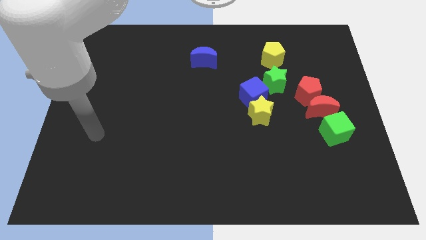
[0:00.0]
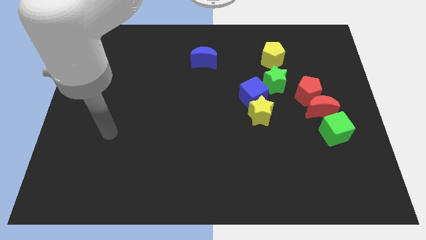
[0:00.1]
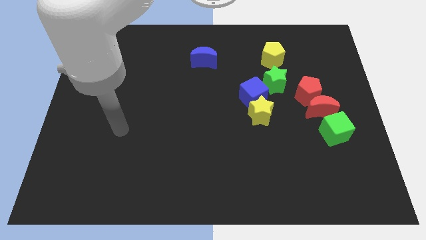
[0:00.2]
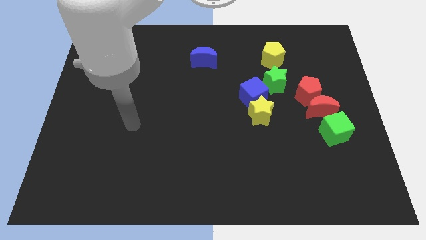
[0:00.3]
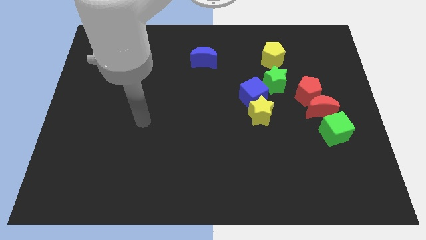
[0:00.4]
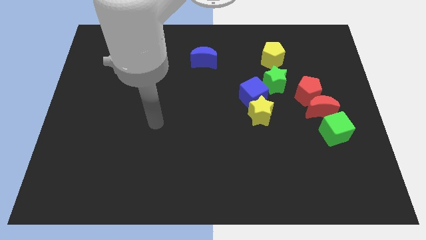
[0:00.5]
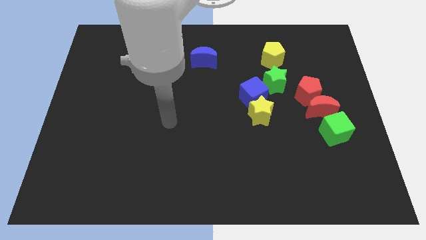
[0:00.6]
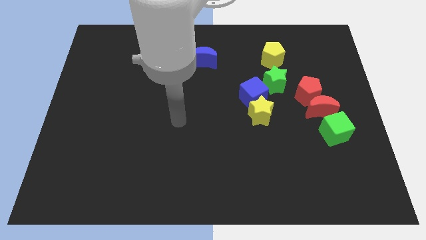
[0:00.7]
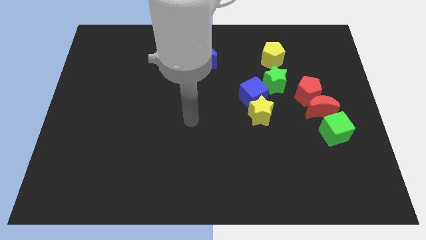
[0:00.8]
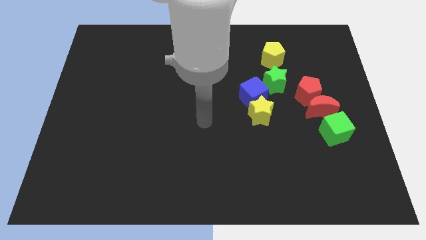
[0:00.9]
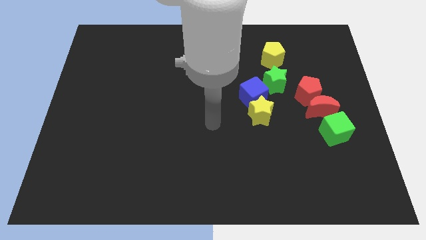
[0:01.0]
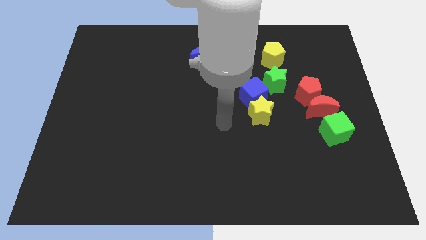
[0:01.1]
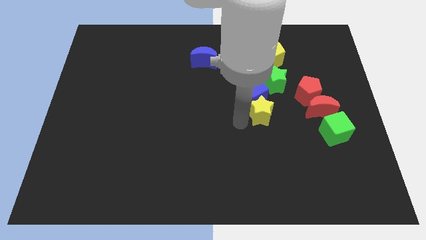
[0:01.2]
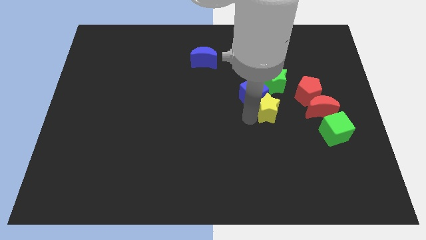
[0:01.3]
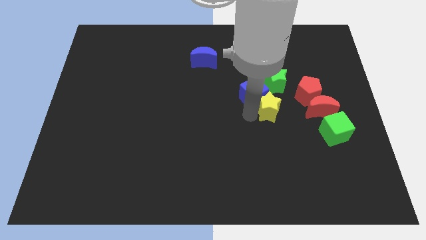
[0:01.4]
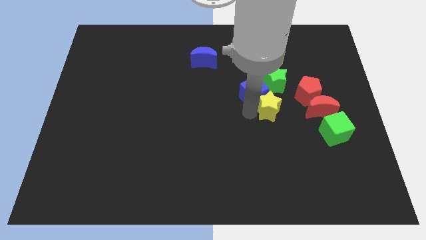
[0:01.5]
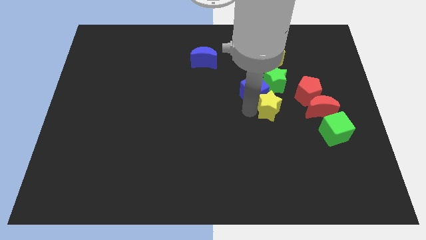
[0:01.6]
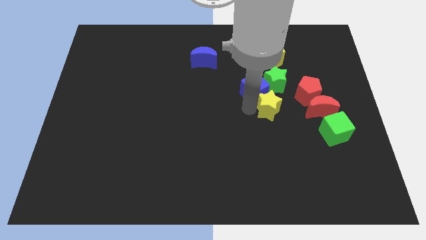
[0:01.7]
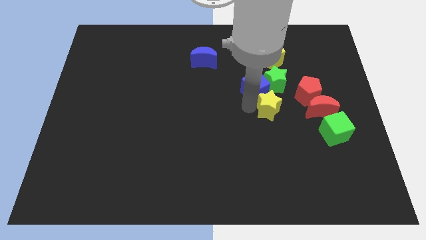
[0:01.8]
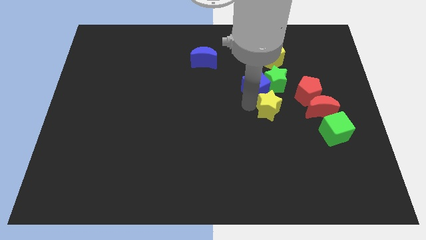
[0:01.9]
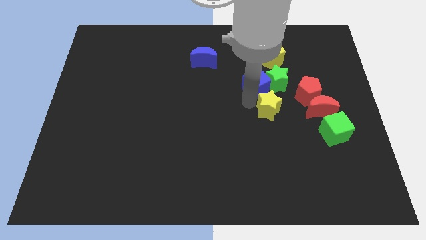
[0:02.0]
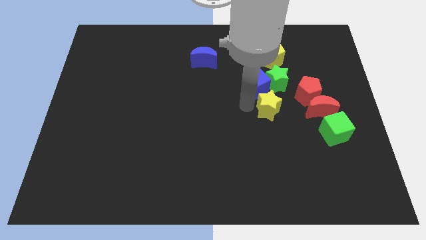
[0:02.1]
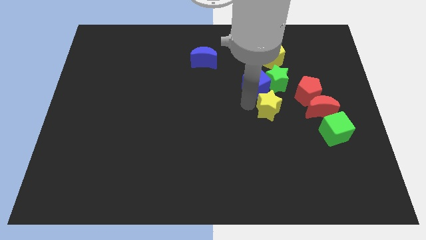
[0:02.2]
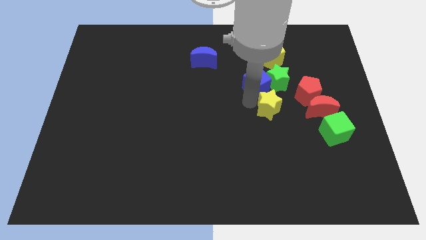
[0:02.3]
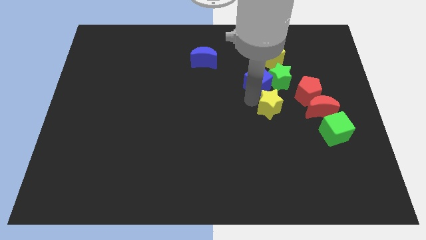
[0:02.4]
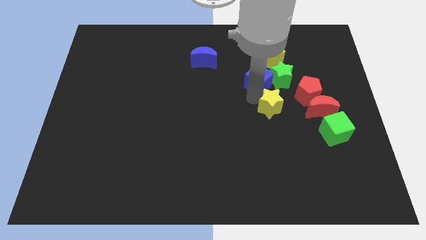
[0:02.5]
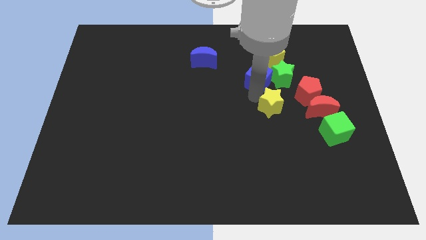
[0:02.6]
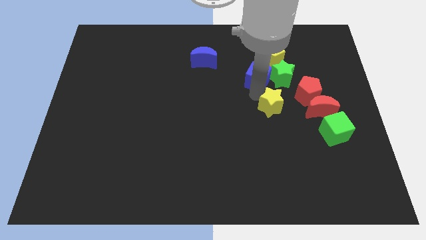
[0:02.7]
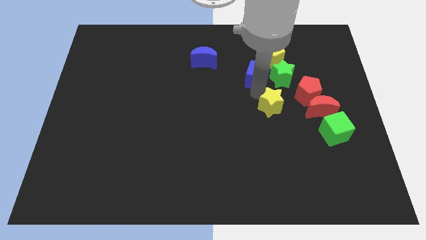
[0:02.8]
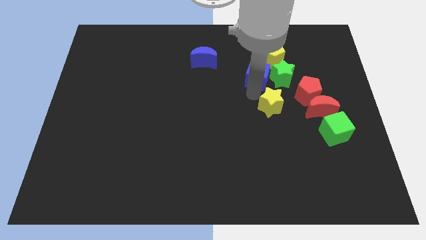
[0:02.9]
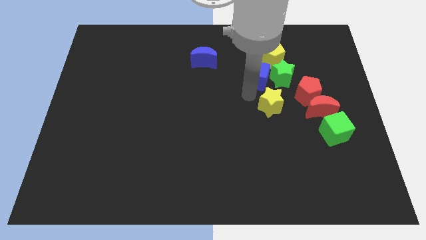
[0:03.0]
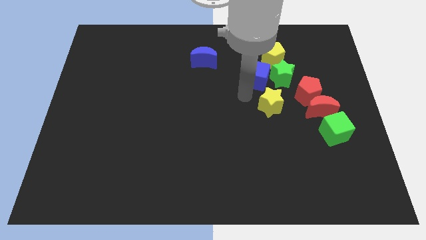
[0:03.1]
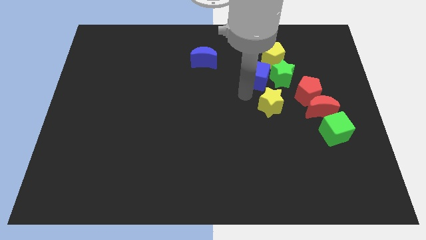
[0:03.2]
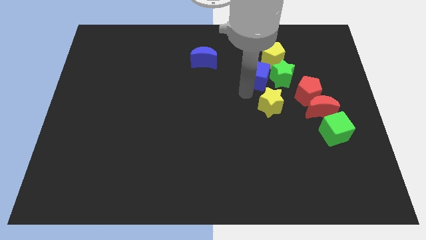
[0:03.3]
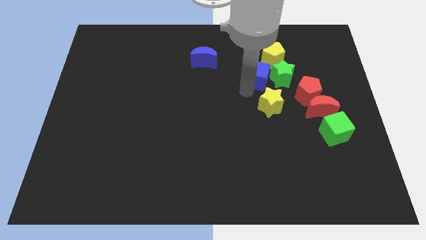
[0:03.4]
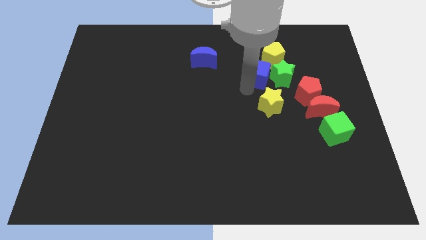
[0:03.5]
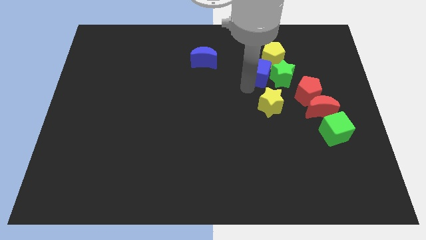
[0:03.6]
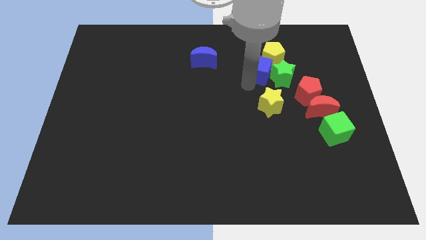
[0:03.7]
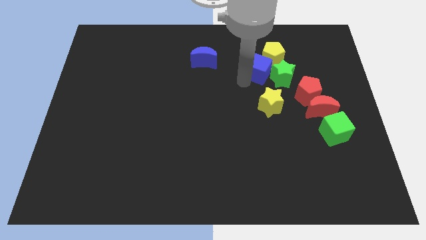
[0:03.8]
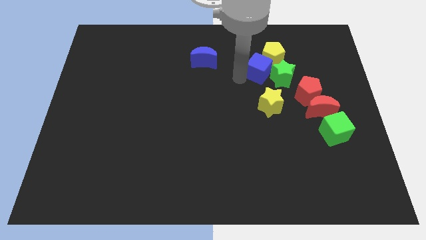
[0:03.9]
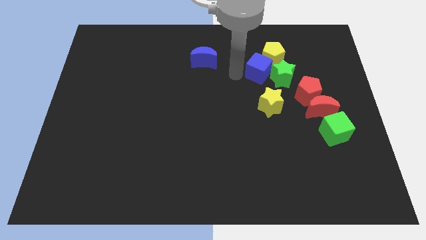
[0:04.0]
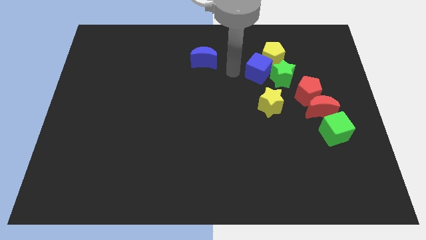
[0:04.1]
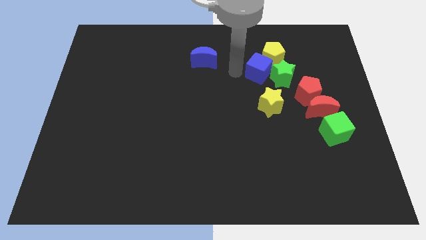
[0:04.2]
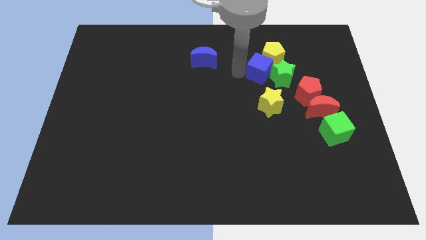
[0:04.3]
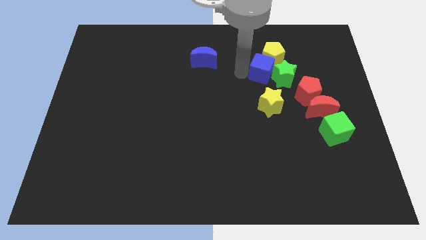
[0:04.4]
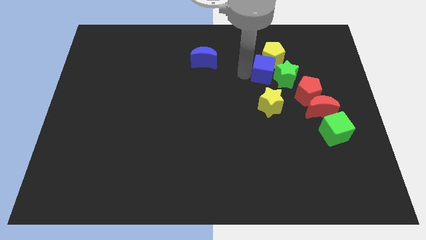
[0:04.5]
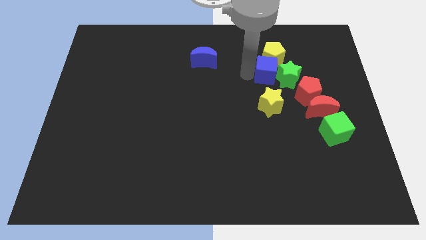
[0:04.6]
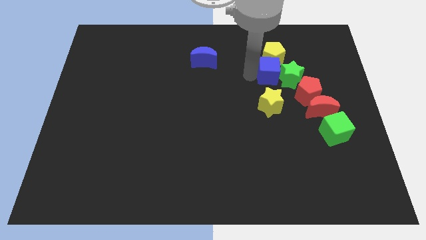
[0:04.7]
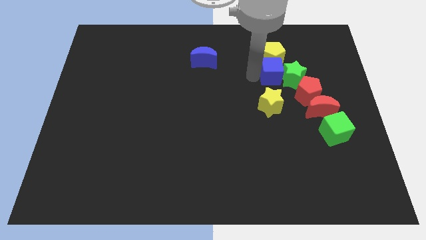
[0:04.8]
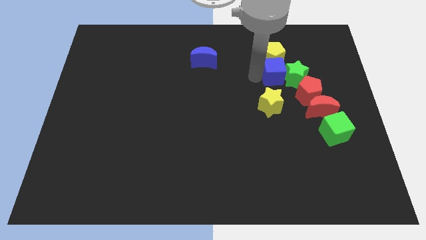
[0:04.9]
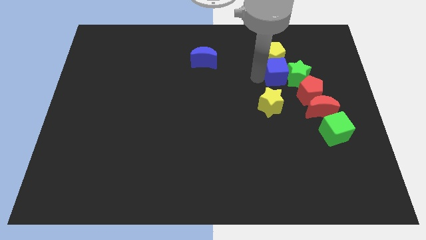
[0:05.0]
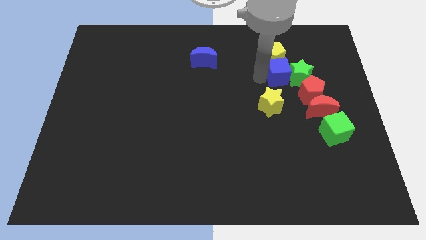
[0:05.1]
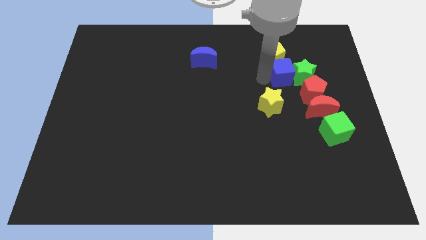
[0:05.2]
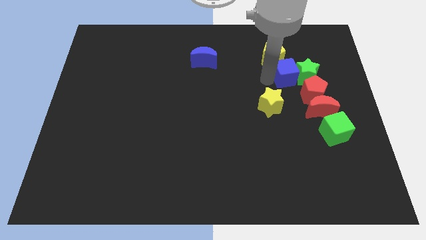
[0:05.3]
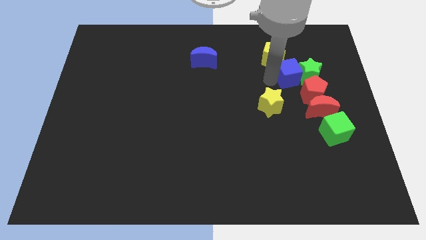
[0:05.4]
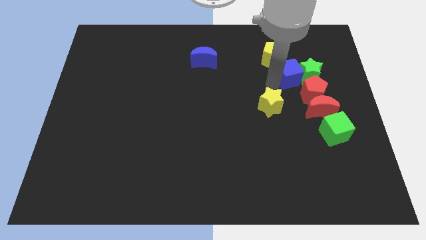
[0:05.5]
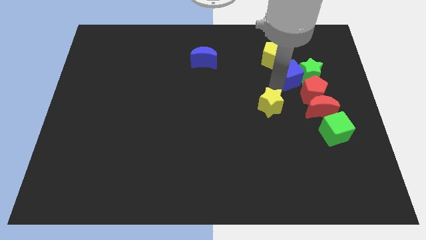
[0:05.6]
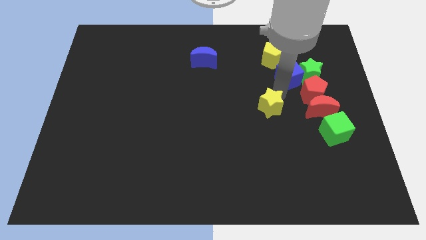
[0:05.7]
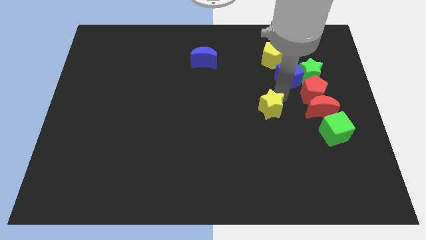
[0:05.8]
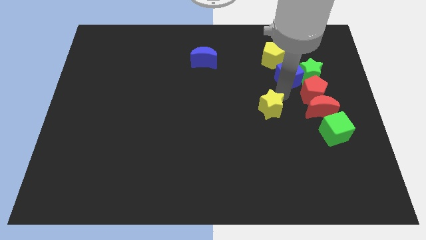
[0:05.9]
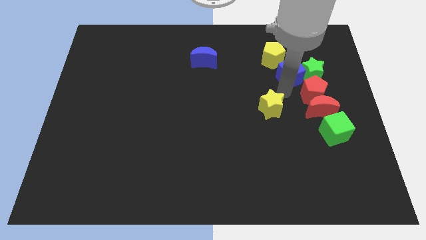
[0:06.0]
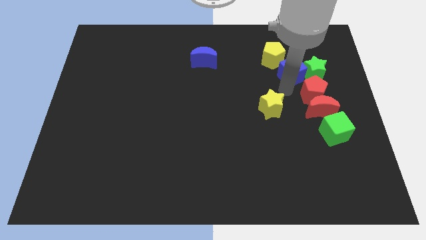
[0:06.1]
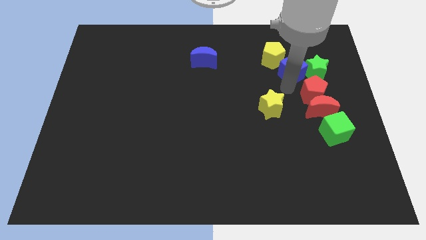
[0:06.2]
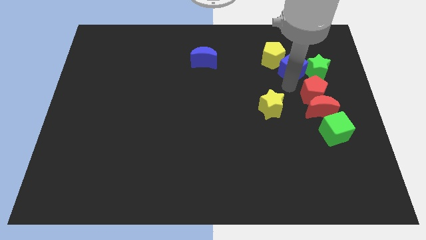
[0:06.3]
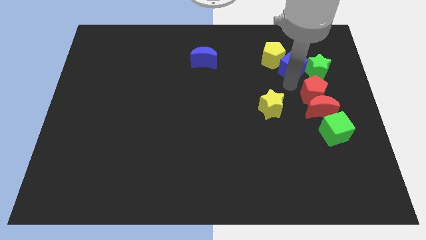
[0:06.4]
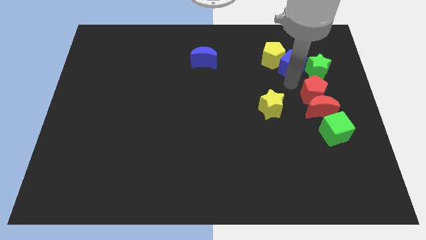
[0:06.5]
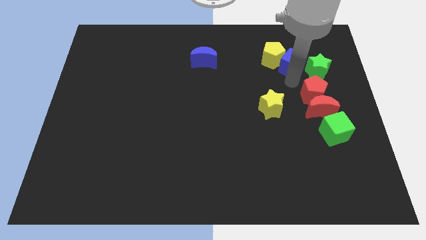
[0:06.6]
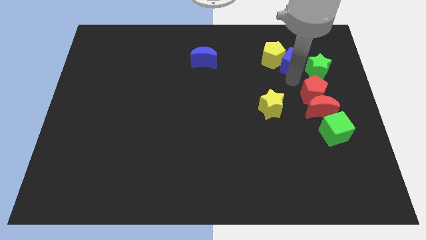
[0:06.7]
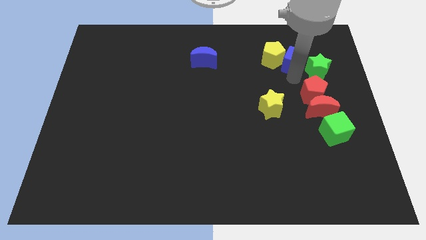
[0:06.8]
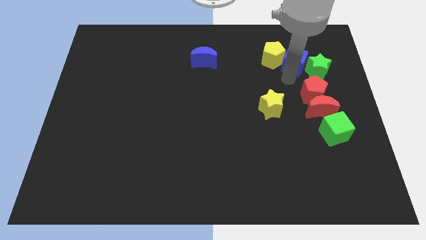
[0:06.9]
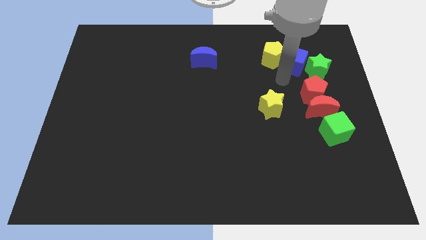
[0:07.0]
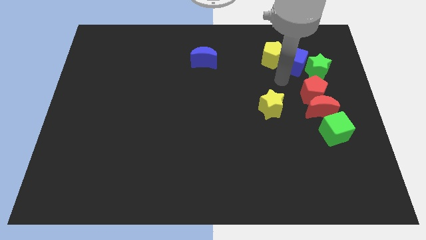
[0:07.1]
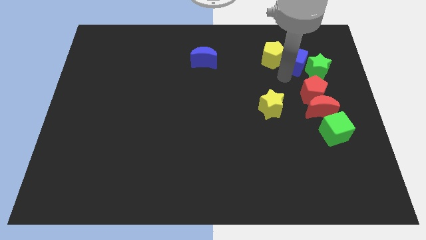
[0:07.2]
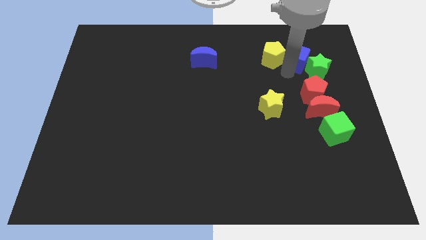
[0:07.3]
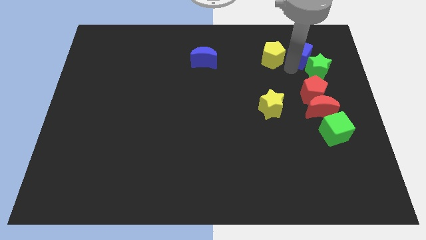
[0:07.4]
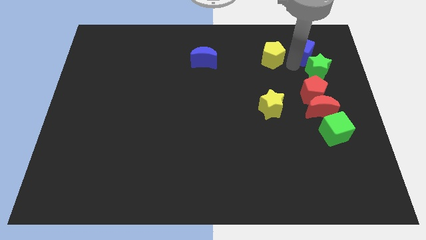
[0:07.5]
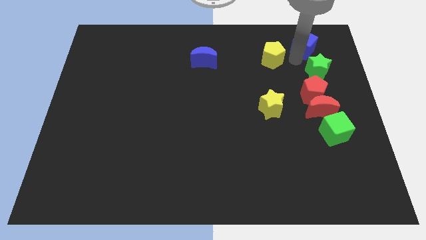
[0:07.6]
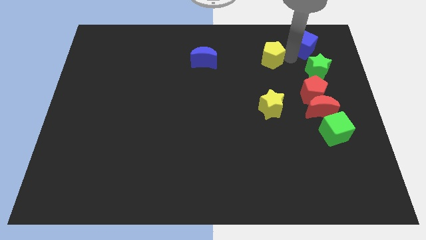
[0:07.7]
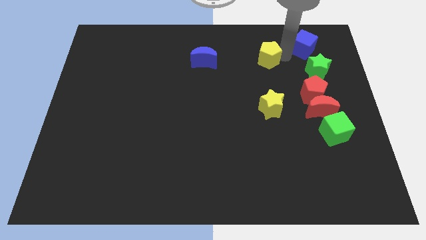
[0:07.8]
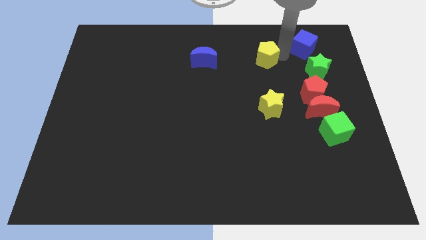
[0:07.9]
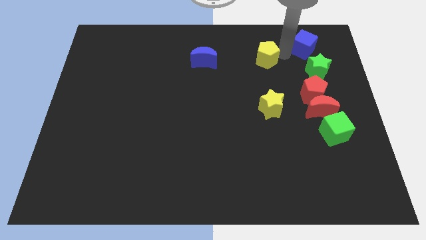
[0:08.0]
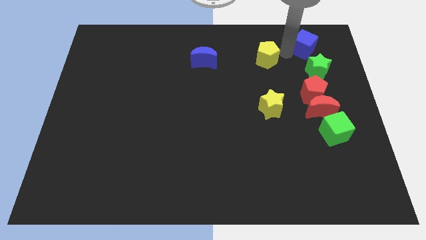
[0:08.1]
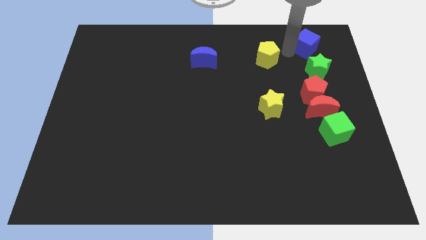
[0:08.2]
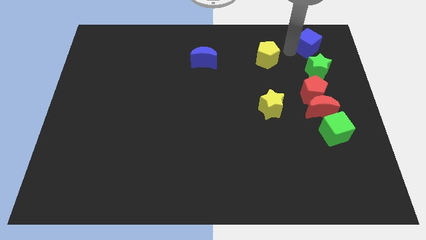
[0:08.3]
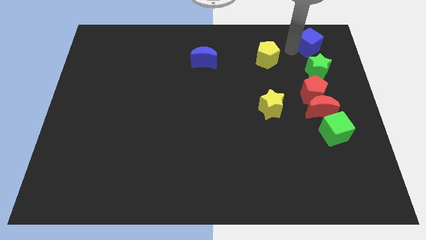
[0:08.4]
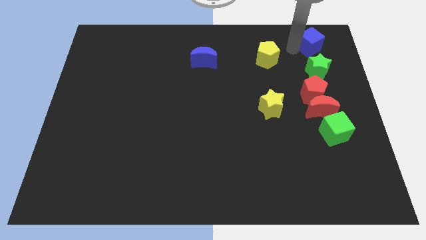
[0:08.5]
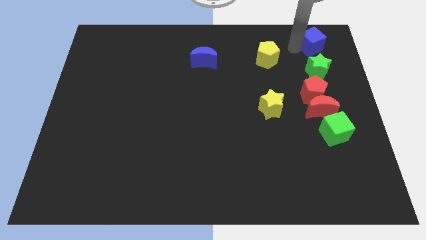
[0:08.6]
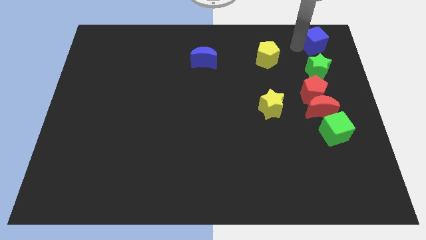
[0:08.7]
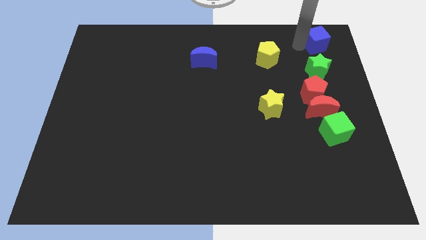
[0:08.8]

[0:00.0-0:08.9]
push the blue cube to the top right
